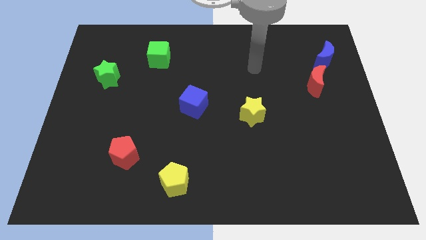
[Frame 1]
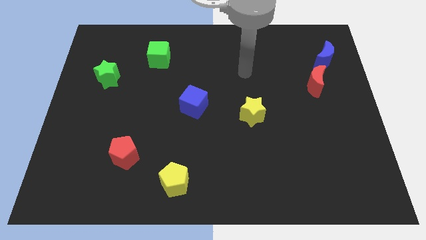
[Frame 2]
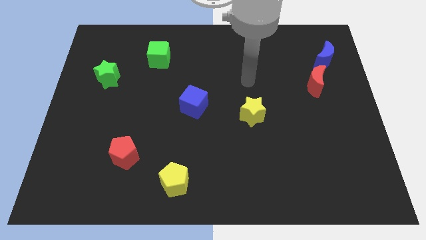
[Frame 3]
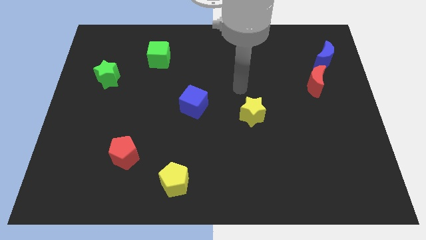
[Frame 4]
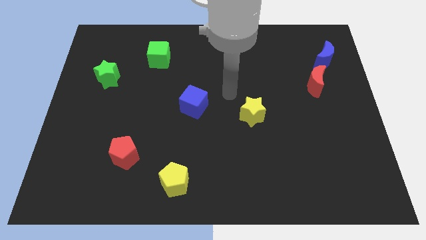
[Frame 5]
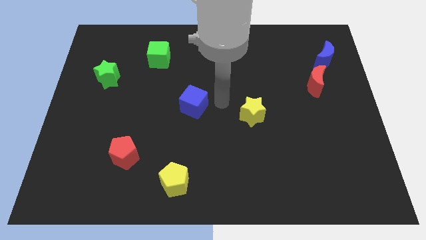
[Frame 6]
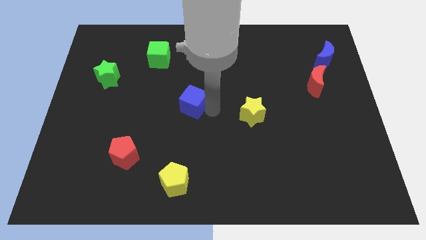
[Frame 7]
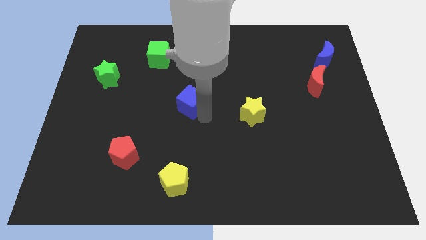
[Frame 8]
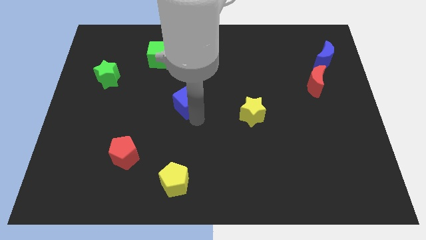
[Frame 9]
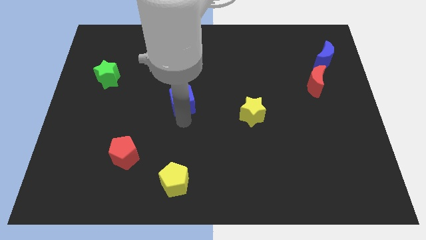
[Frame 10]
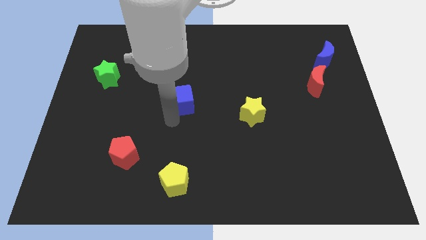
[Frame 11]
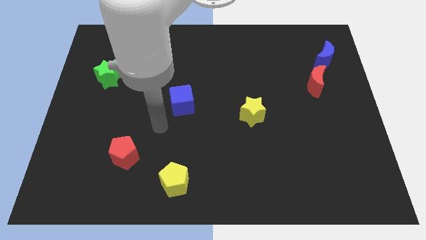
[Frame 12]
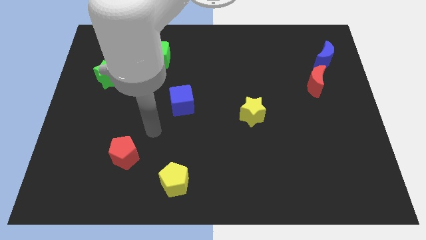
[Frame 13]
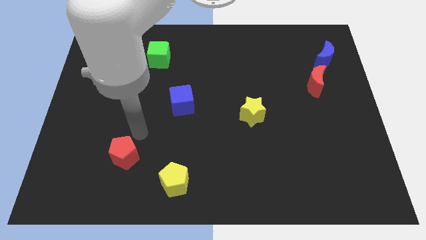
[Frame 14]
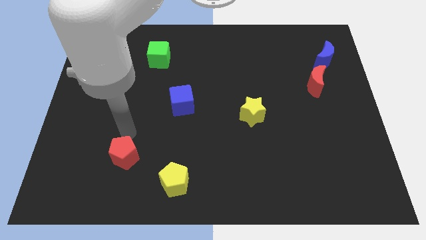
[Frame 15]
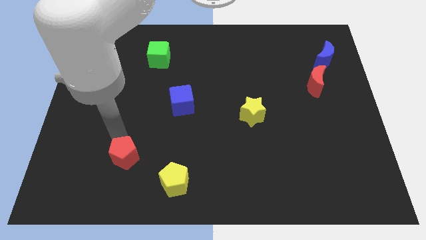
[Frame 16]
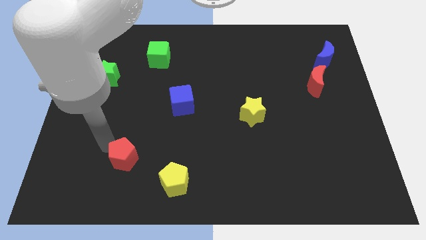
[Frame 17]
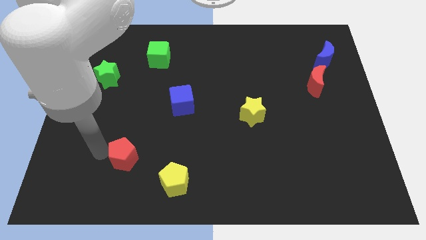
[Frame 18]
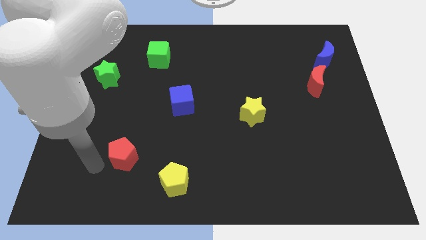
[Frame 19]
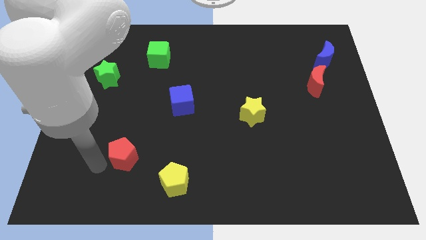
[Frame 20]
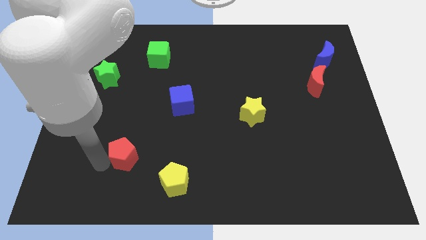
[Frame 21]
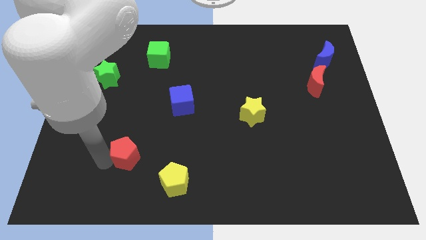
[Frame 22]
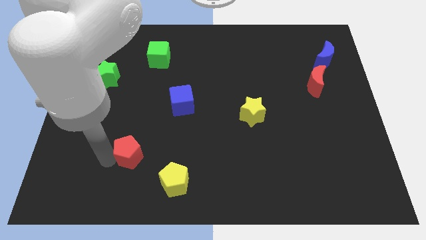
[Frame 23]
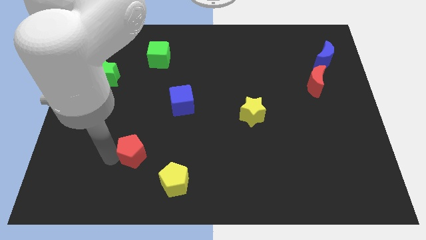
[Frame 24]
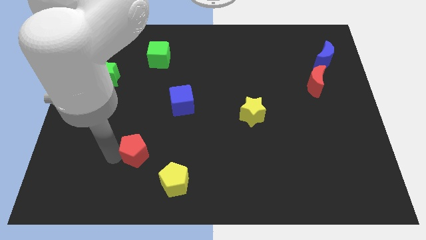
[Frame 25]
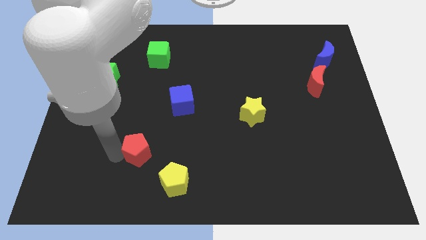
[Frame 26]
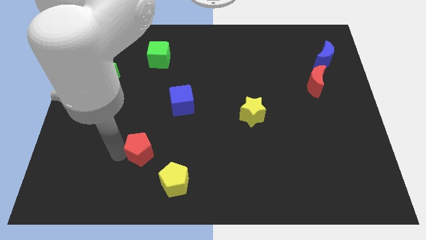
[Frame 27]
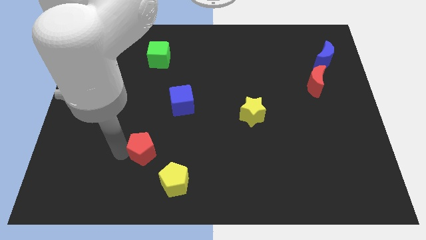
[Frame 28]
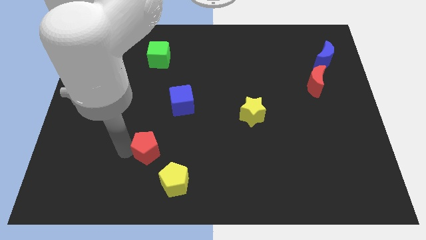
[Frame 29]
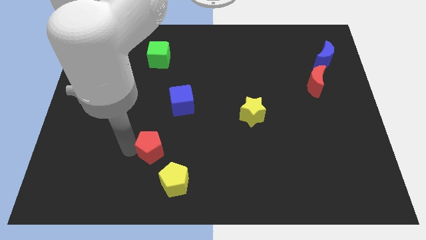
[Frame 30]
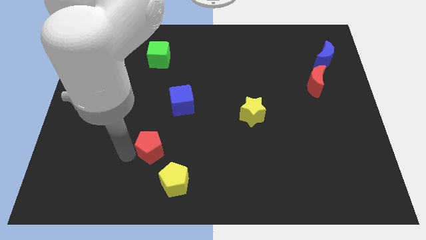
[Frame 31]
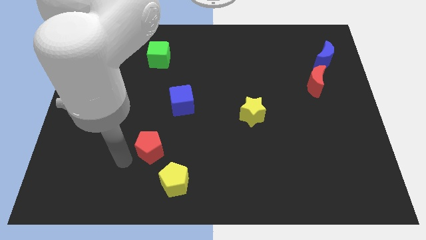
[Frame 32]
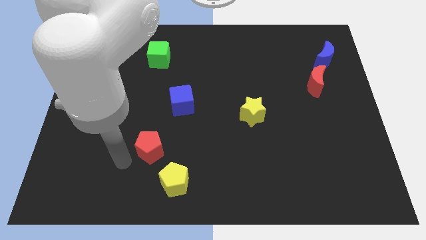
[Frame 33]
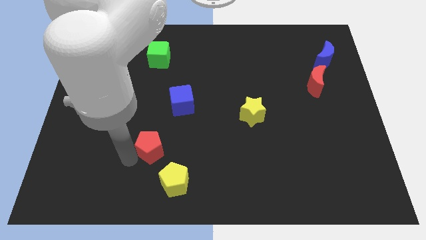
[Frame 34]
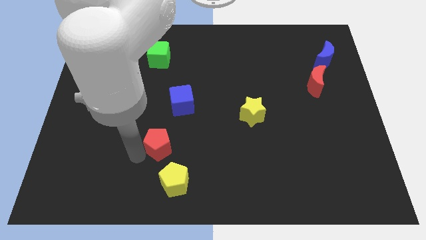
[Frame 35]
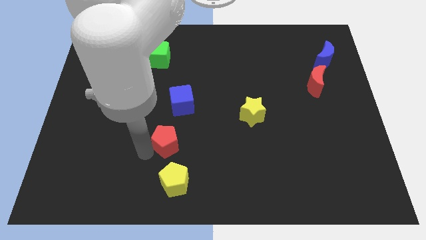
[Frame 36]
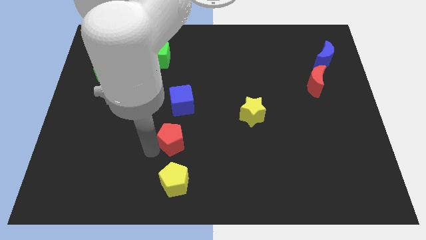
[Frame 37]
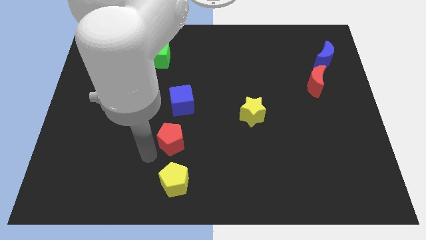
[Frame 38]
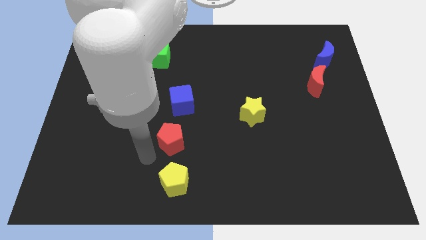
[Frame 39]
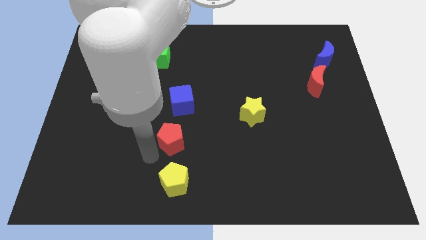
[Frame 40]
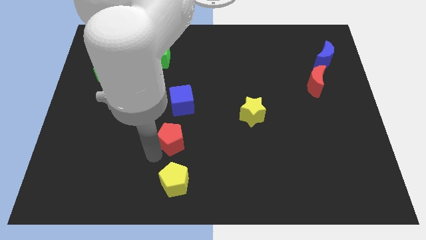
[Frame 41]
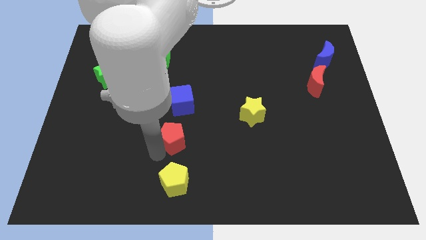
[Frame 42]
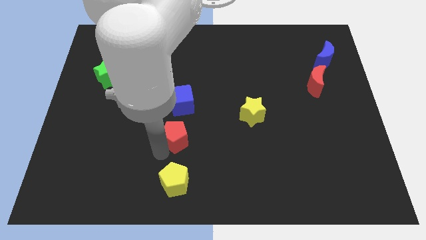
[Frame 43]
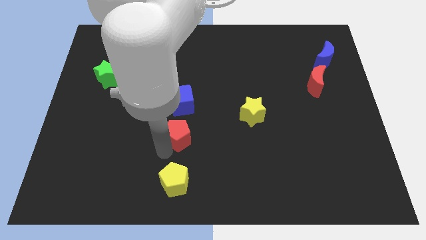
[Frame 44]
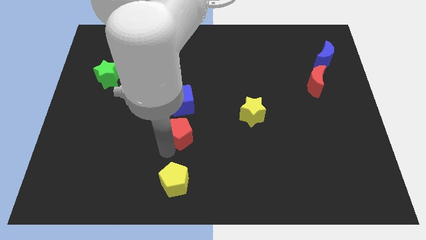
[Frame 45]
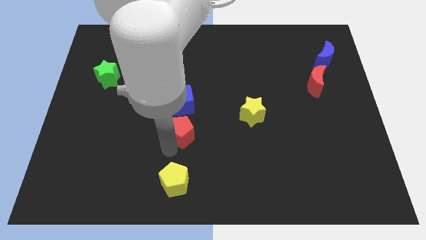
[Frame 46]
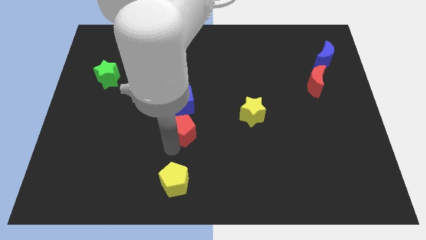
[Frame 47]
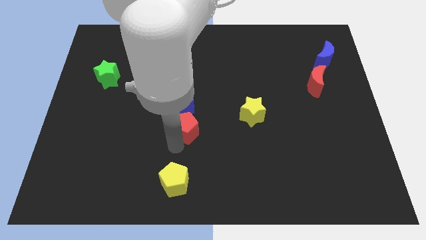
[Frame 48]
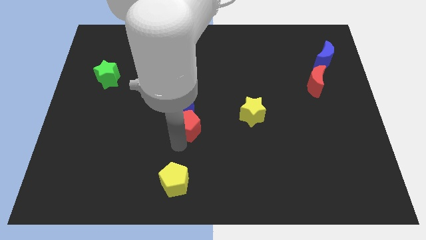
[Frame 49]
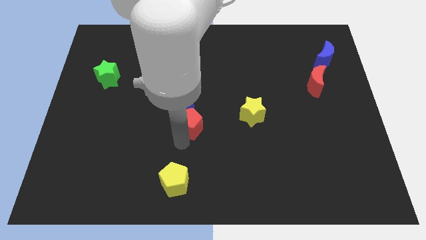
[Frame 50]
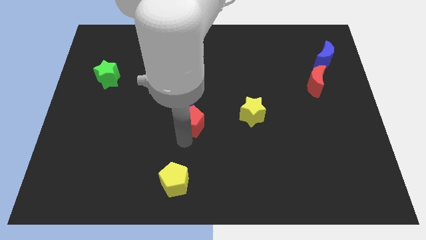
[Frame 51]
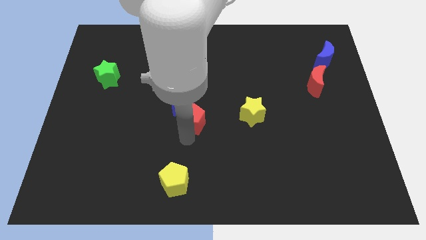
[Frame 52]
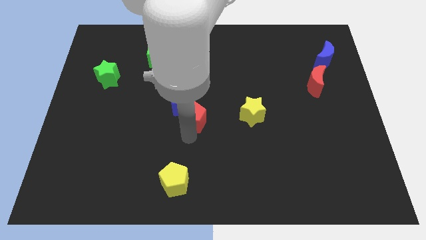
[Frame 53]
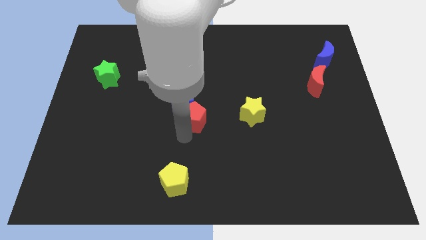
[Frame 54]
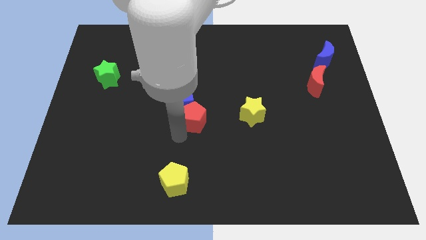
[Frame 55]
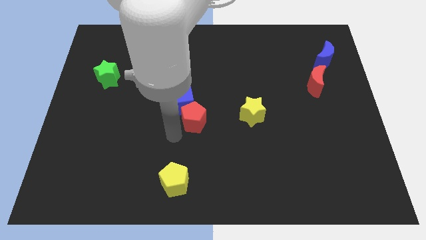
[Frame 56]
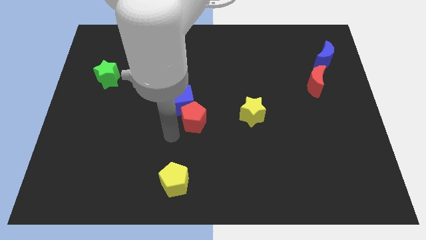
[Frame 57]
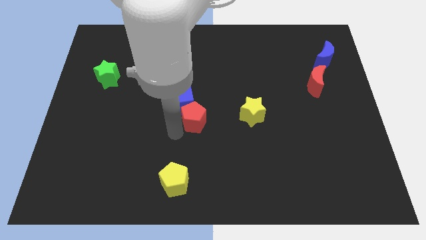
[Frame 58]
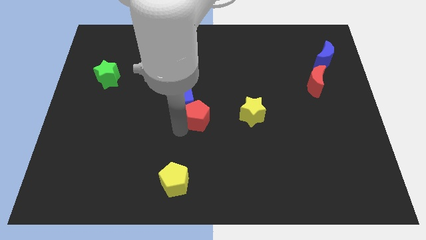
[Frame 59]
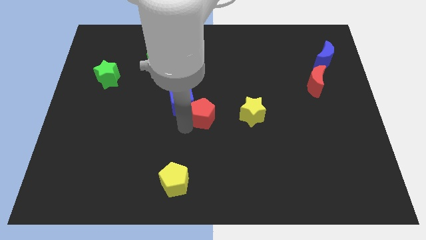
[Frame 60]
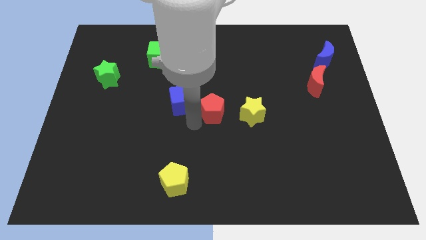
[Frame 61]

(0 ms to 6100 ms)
push the red pentagon up and right diagonally

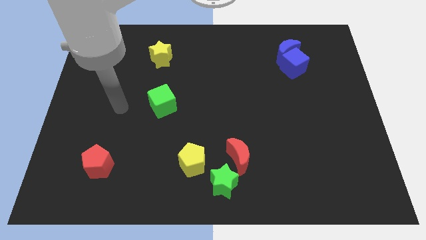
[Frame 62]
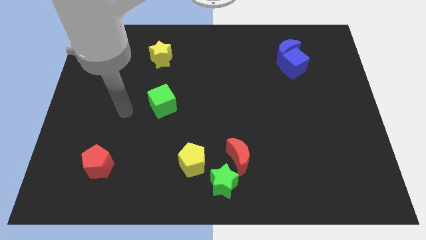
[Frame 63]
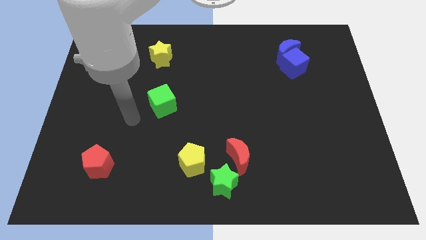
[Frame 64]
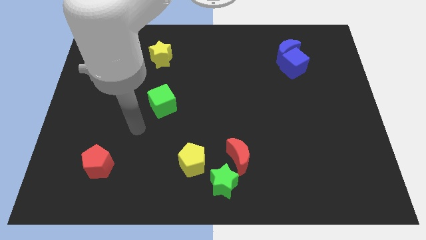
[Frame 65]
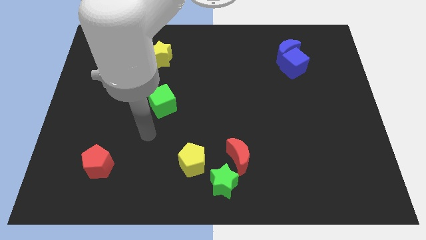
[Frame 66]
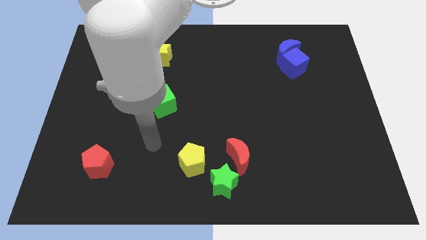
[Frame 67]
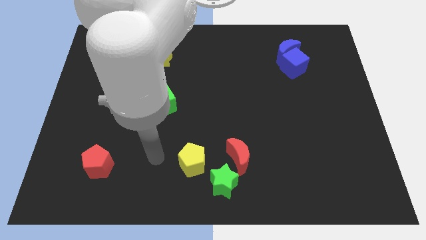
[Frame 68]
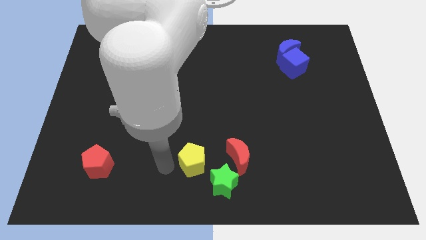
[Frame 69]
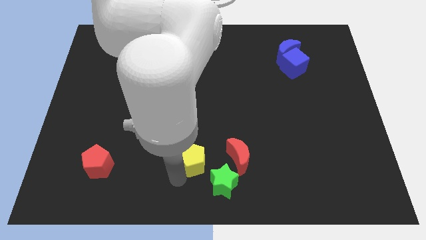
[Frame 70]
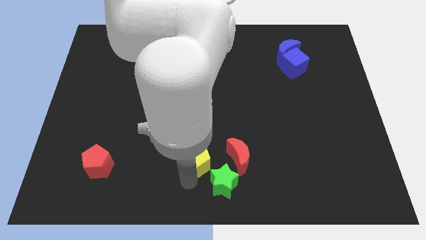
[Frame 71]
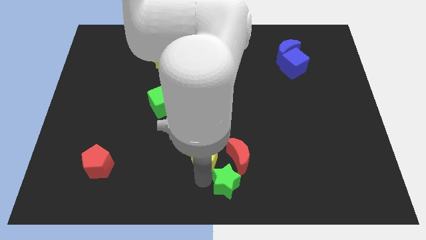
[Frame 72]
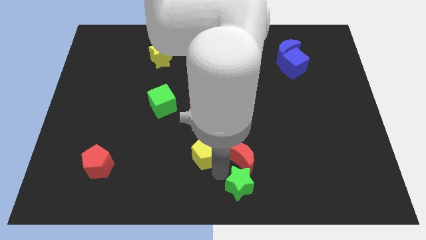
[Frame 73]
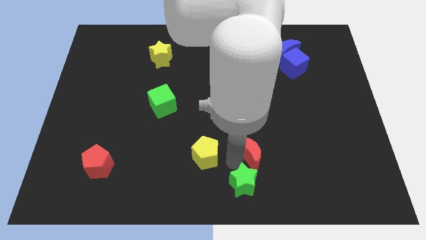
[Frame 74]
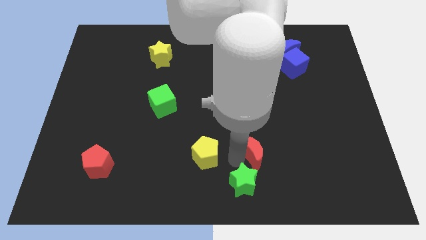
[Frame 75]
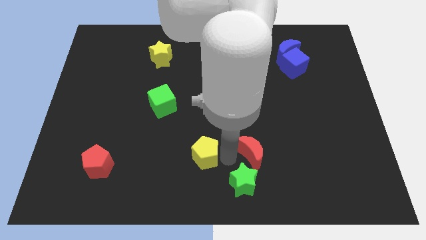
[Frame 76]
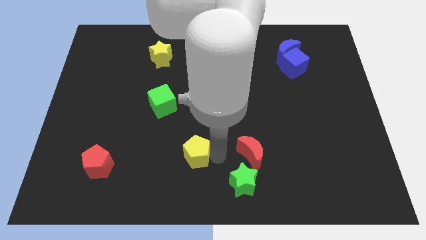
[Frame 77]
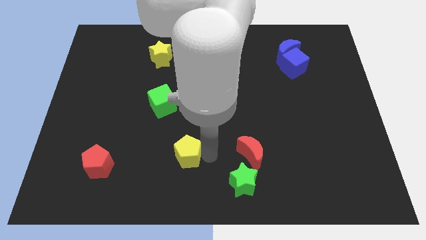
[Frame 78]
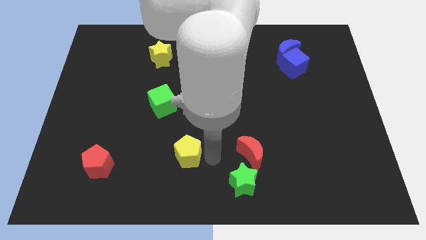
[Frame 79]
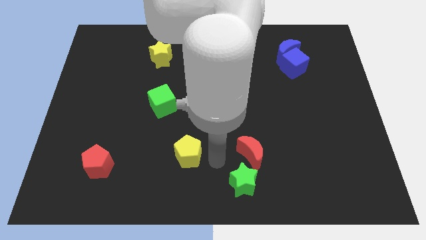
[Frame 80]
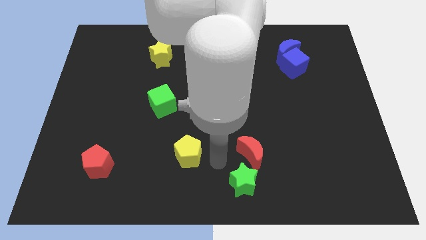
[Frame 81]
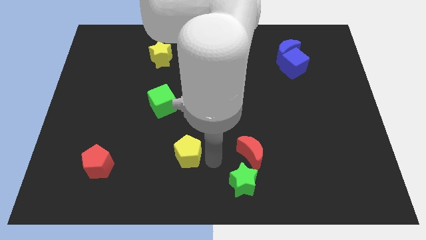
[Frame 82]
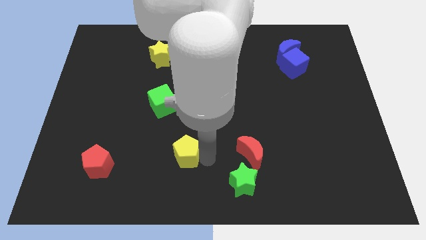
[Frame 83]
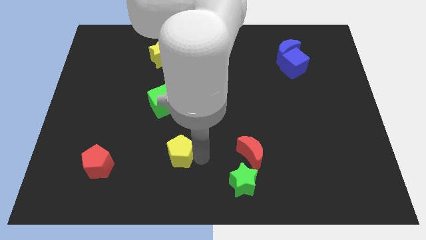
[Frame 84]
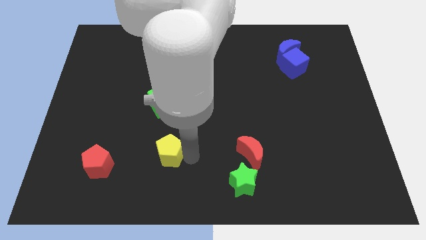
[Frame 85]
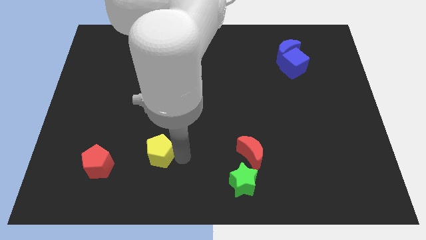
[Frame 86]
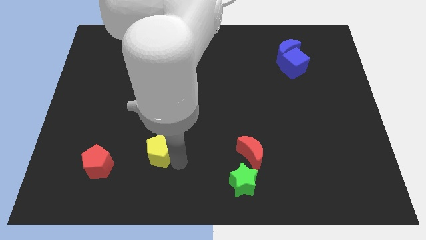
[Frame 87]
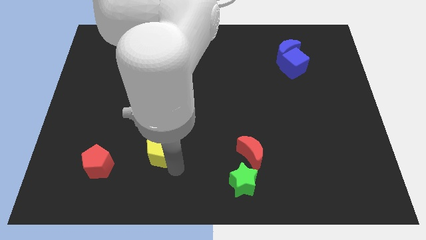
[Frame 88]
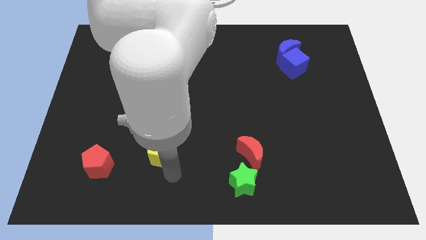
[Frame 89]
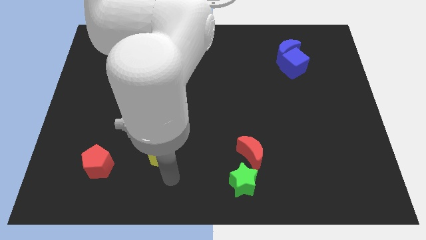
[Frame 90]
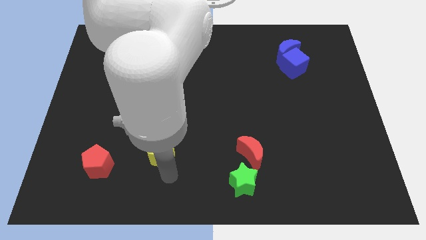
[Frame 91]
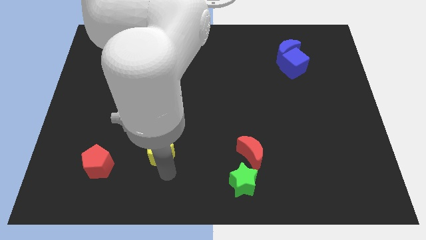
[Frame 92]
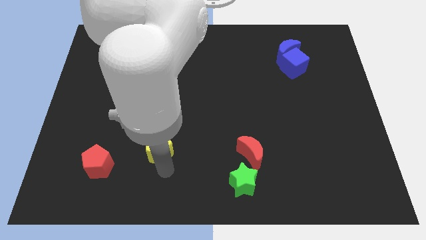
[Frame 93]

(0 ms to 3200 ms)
move the yellow pentagon upwards and to the left a little
